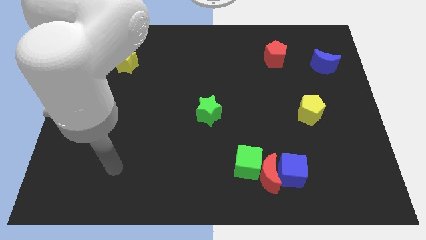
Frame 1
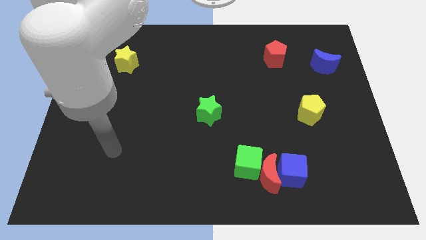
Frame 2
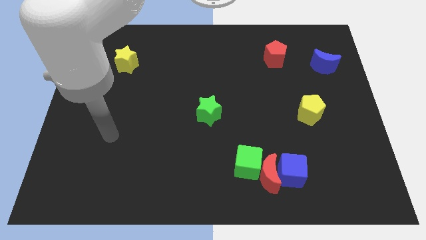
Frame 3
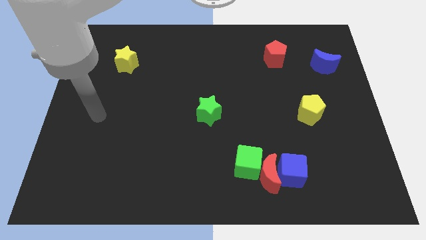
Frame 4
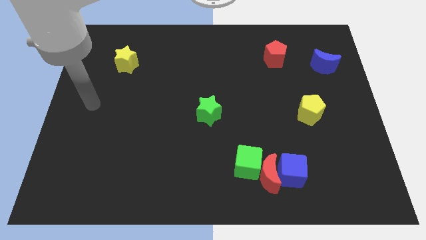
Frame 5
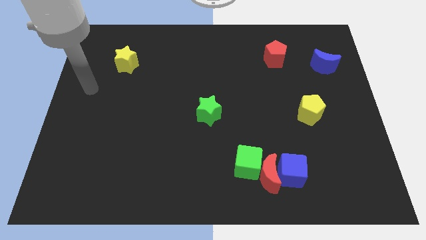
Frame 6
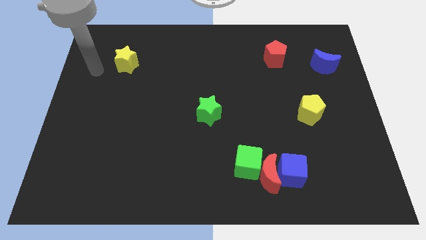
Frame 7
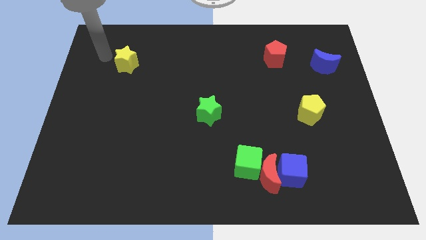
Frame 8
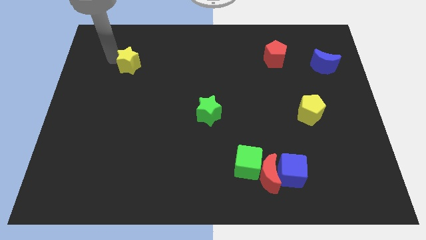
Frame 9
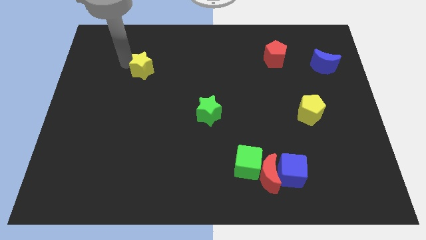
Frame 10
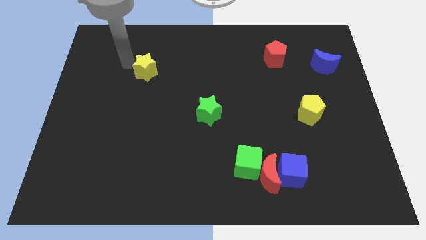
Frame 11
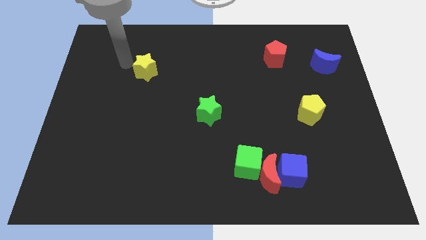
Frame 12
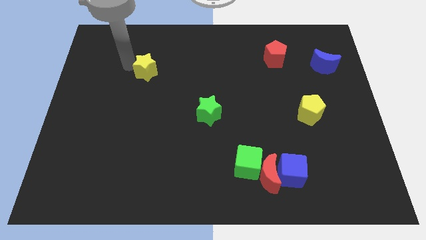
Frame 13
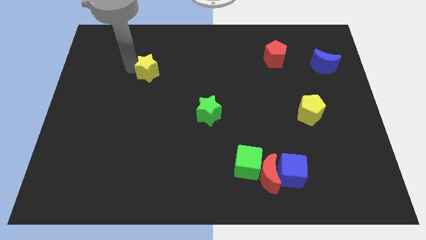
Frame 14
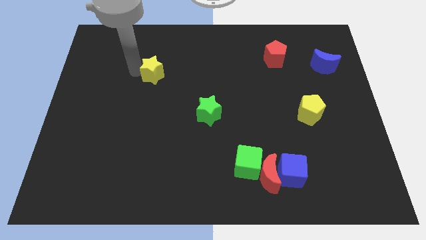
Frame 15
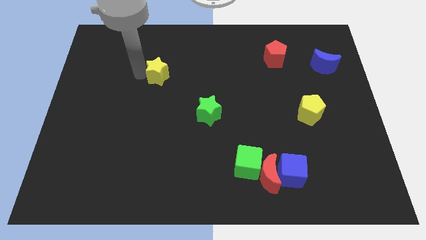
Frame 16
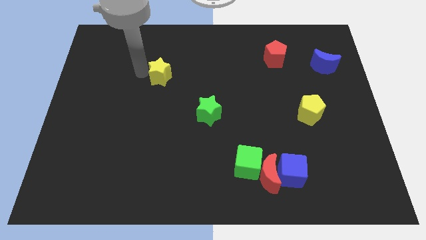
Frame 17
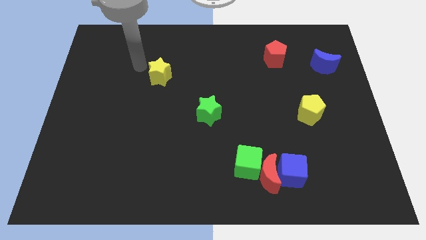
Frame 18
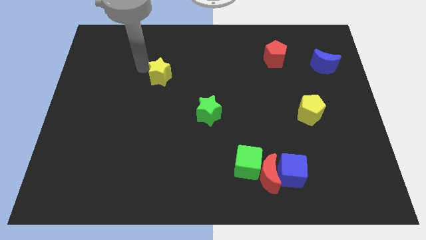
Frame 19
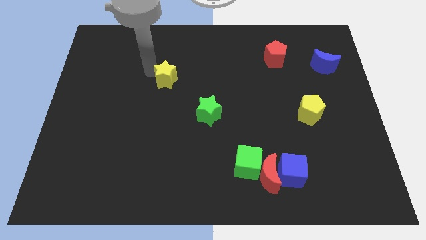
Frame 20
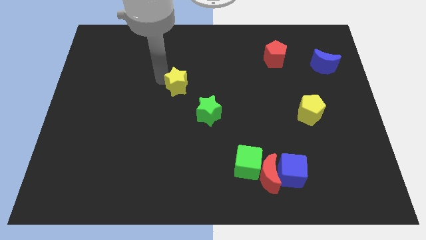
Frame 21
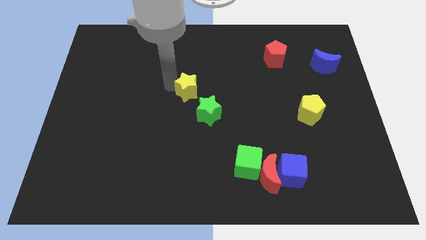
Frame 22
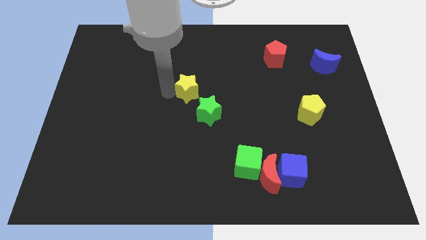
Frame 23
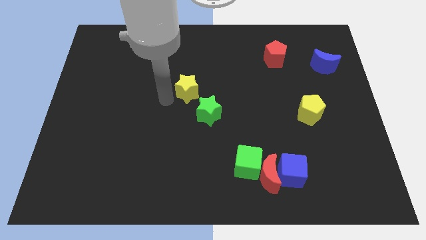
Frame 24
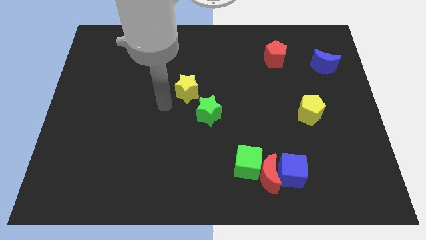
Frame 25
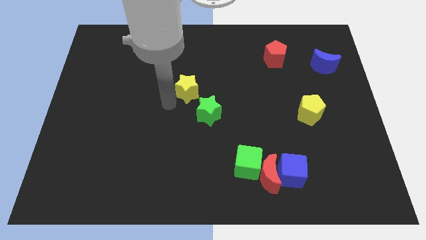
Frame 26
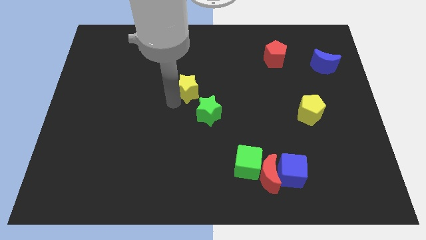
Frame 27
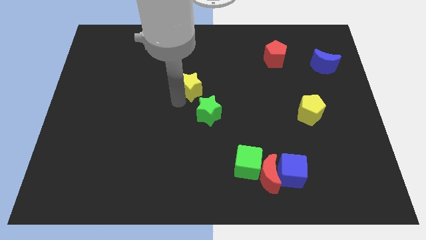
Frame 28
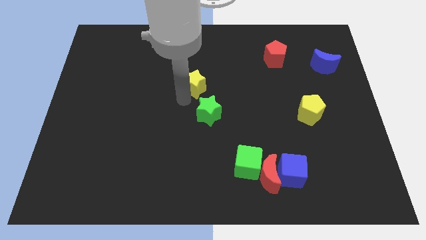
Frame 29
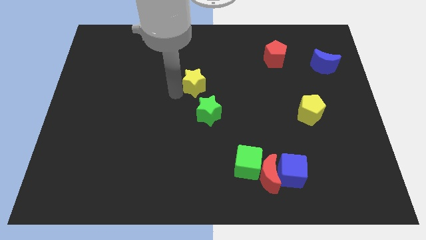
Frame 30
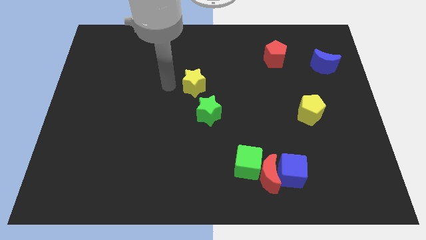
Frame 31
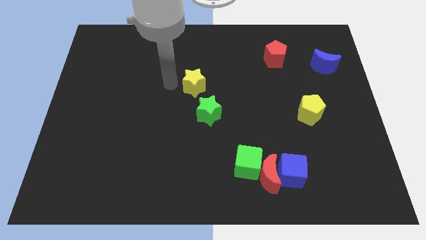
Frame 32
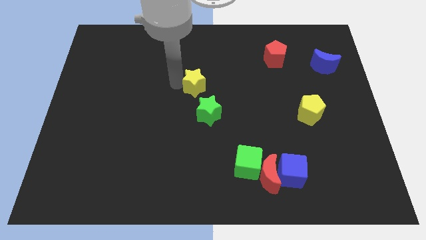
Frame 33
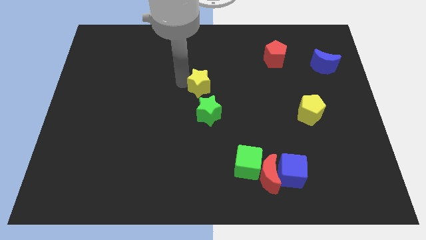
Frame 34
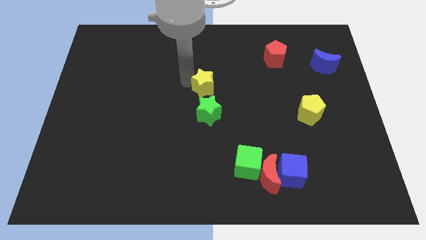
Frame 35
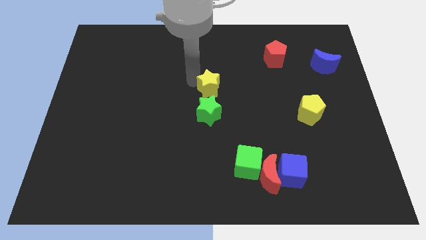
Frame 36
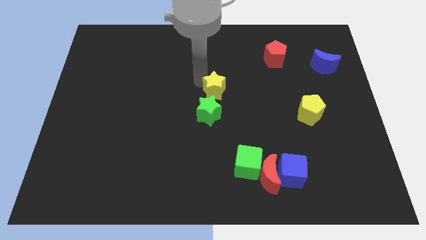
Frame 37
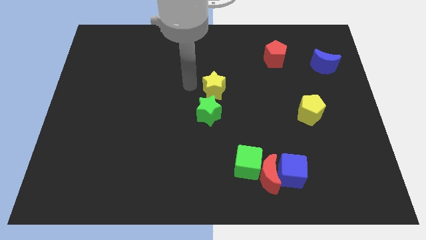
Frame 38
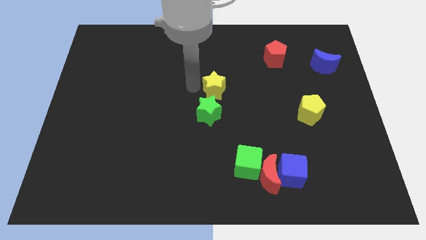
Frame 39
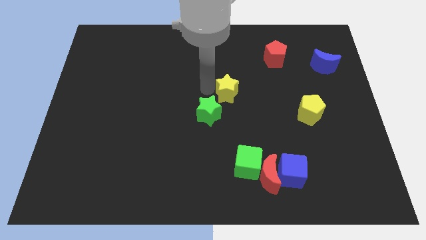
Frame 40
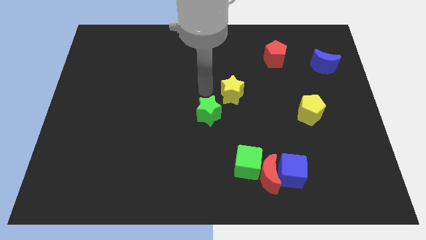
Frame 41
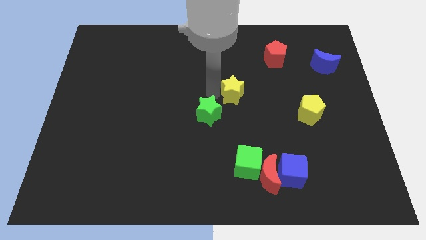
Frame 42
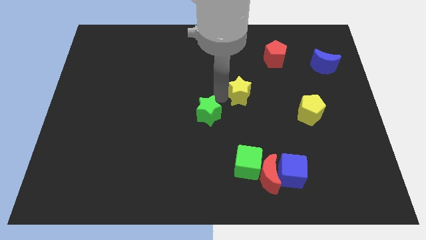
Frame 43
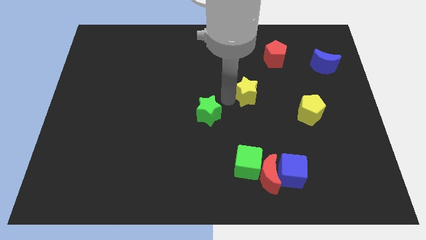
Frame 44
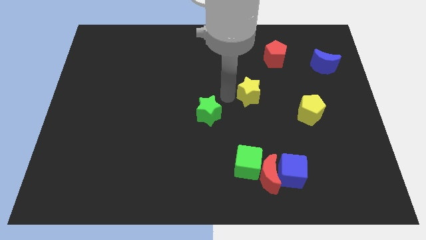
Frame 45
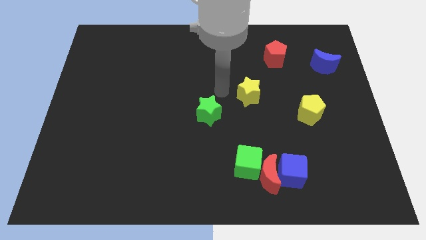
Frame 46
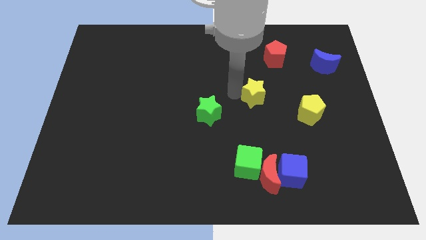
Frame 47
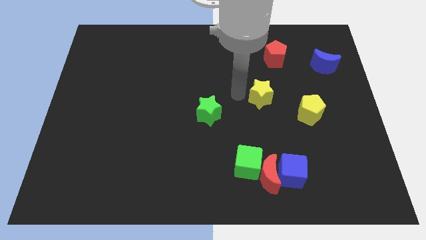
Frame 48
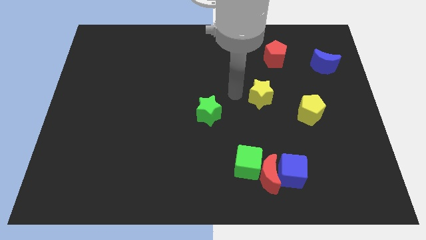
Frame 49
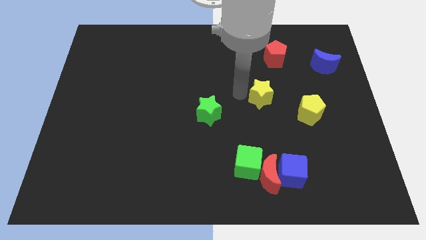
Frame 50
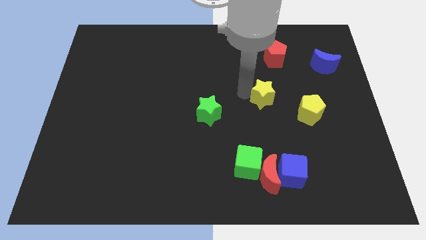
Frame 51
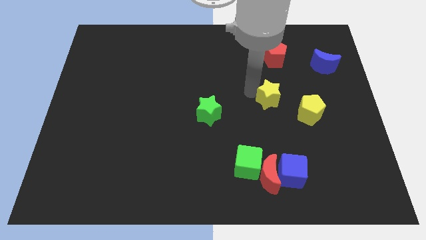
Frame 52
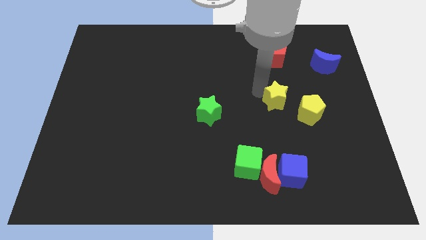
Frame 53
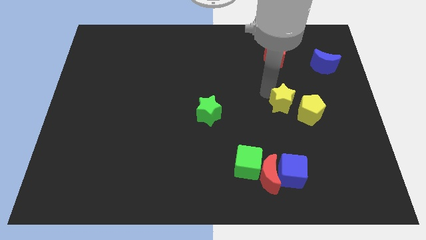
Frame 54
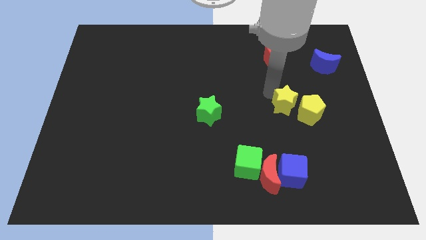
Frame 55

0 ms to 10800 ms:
slide the yellow star to the yellow pentagon

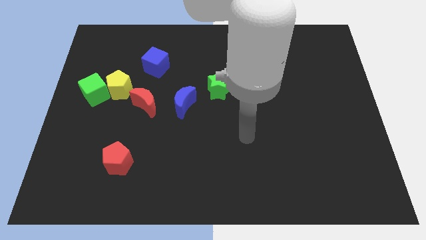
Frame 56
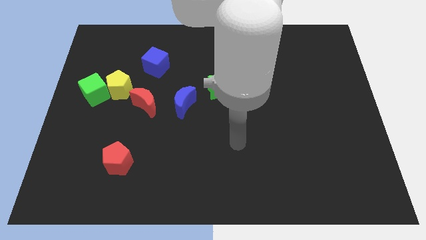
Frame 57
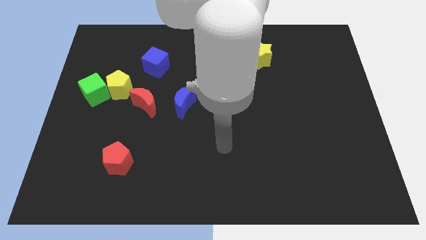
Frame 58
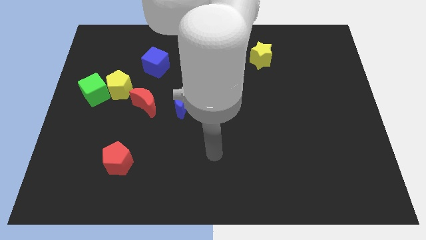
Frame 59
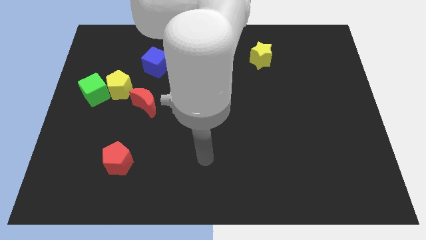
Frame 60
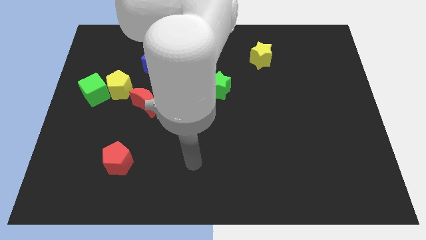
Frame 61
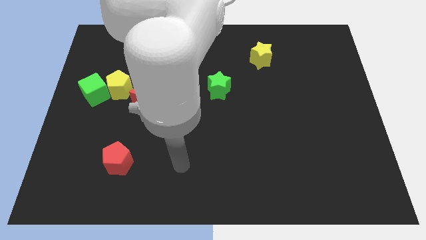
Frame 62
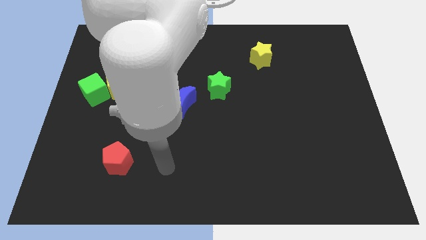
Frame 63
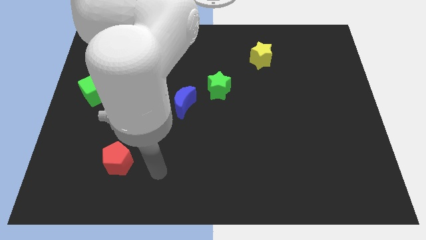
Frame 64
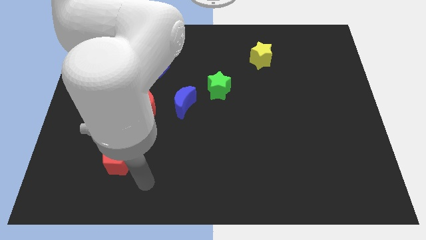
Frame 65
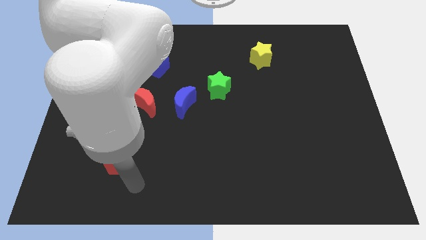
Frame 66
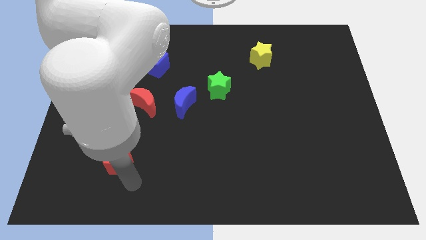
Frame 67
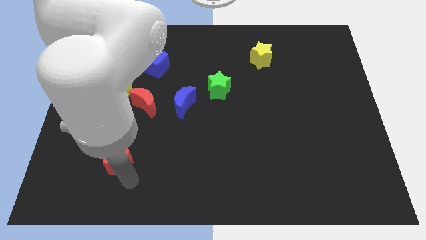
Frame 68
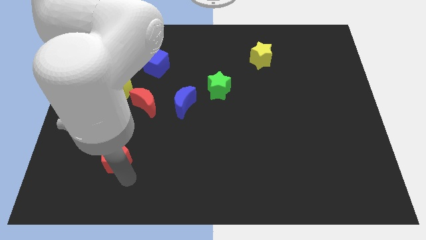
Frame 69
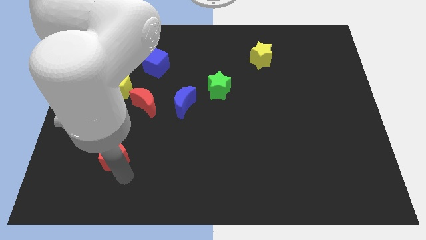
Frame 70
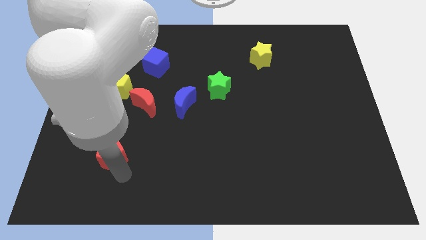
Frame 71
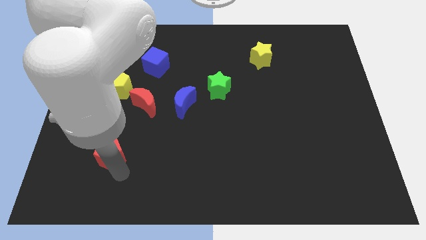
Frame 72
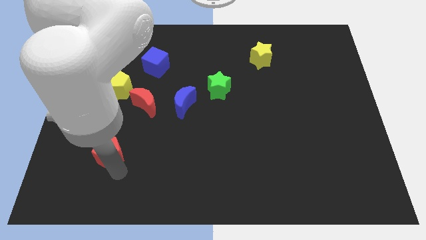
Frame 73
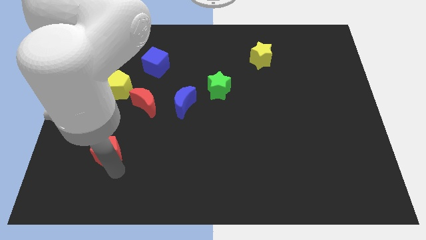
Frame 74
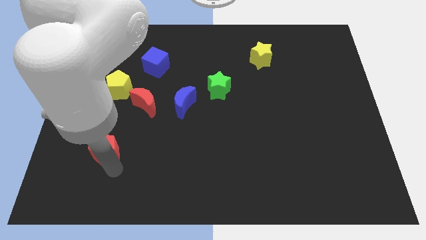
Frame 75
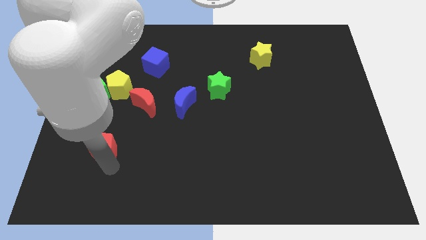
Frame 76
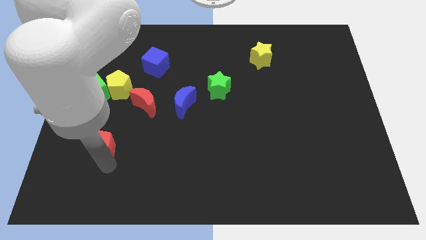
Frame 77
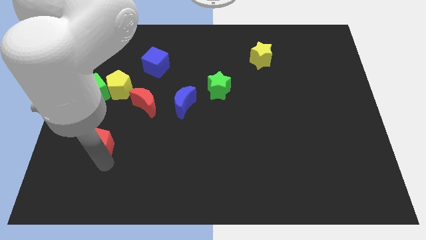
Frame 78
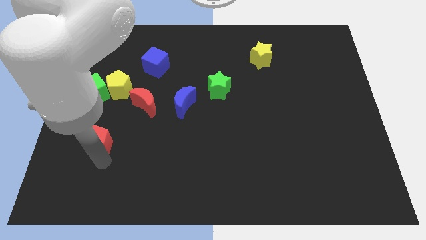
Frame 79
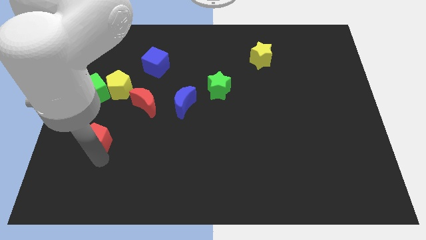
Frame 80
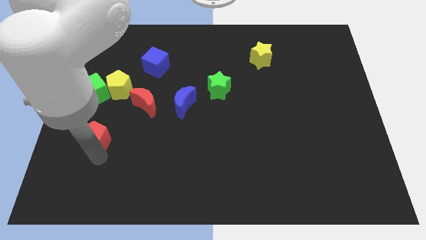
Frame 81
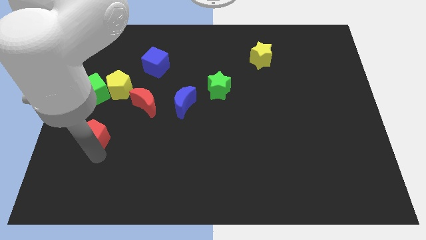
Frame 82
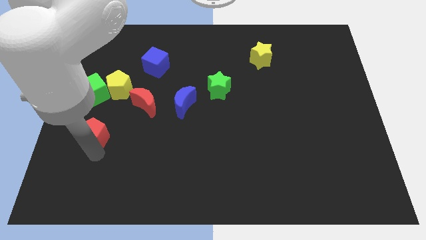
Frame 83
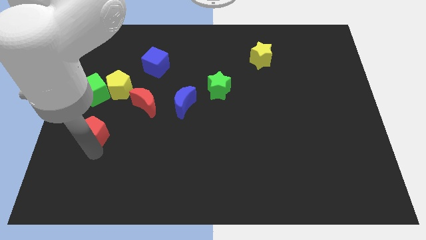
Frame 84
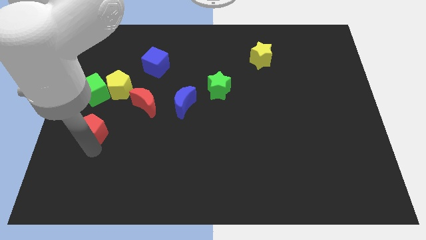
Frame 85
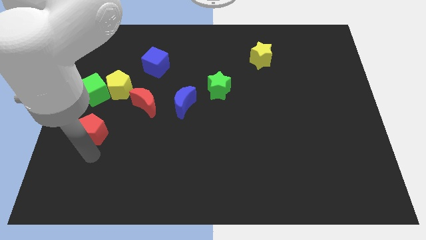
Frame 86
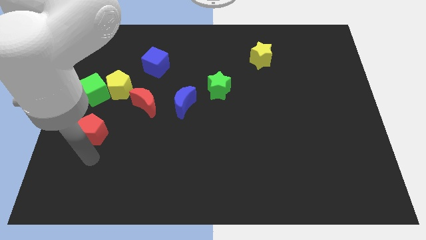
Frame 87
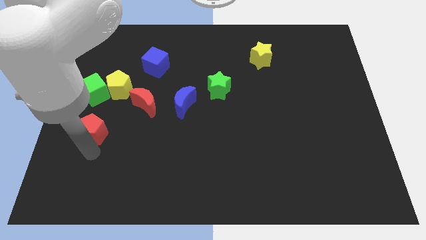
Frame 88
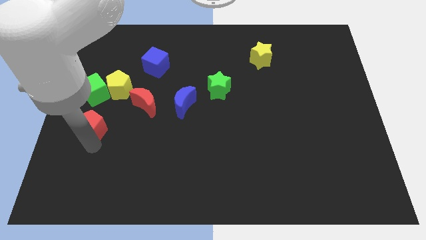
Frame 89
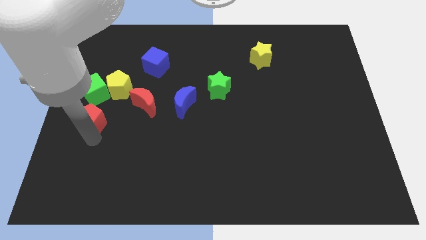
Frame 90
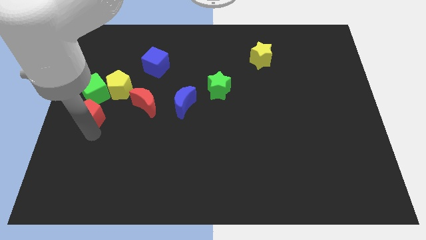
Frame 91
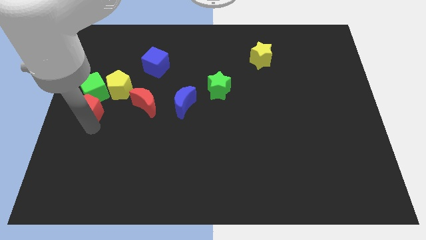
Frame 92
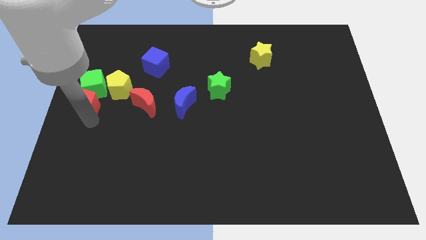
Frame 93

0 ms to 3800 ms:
slide the red pentagon towards the green cube
